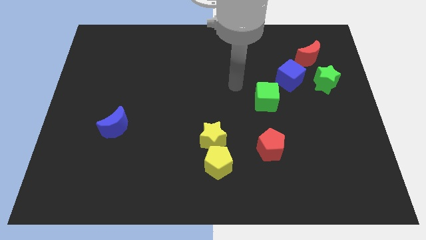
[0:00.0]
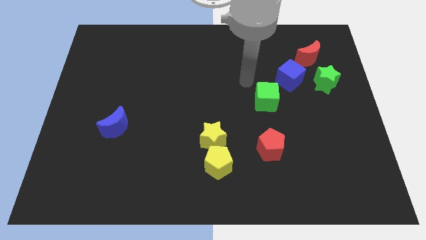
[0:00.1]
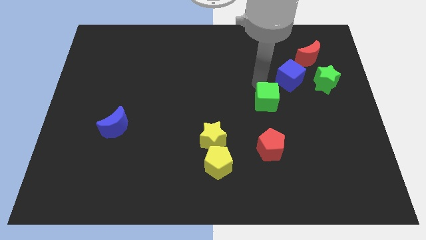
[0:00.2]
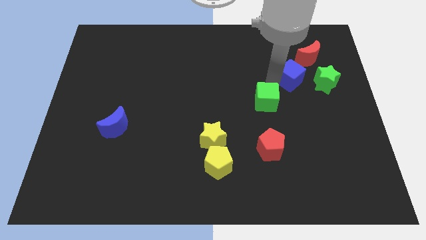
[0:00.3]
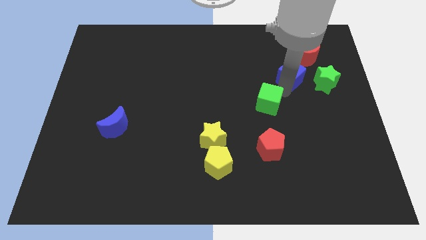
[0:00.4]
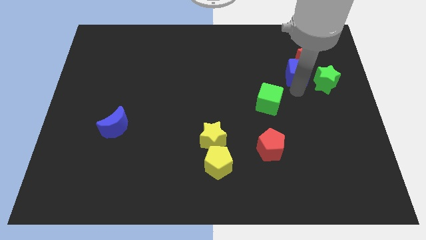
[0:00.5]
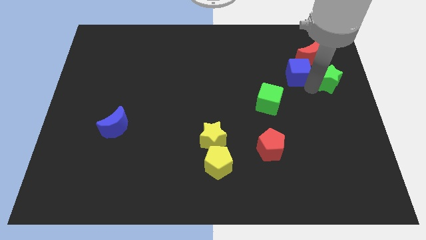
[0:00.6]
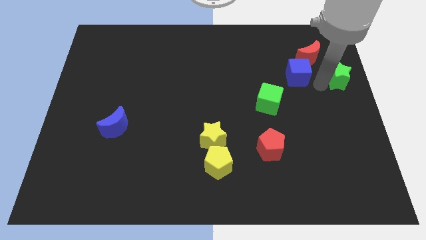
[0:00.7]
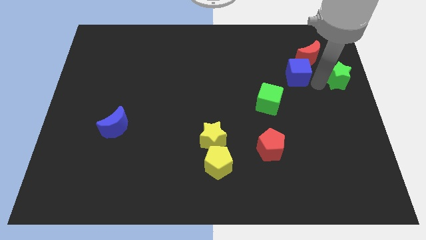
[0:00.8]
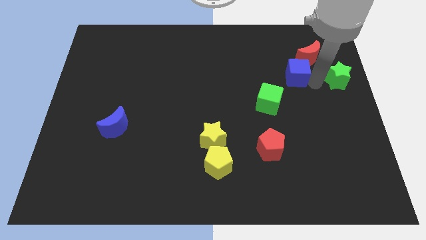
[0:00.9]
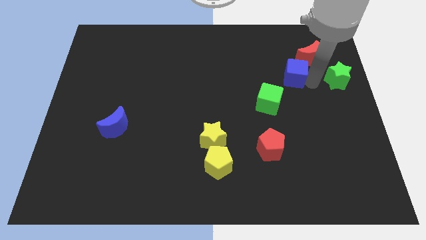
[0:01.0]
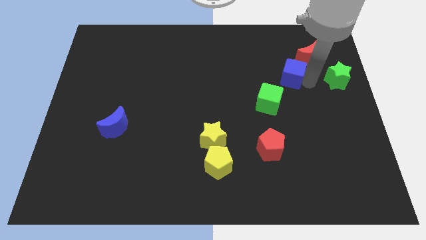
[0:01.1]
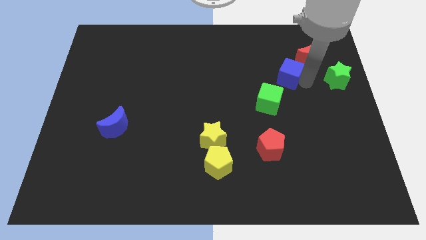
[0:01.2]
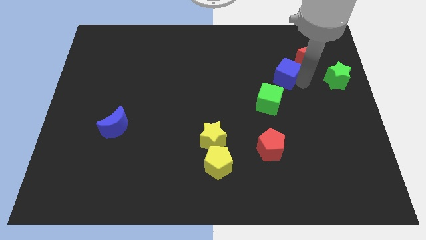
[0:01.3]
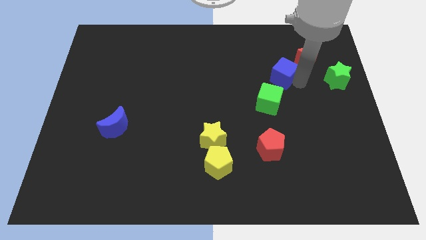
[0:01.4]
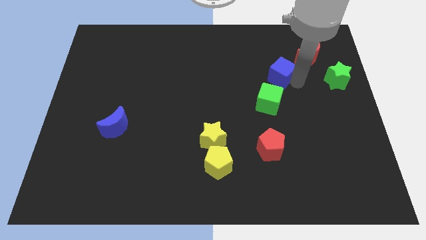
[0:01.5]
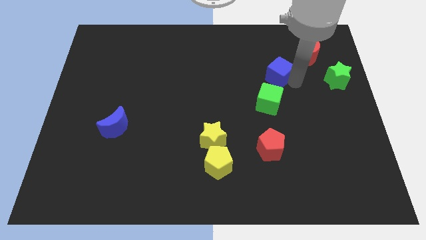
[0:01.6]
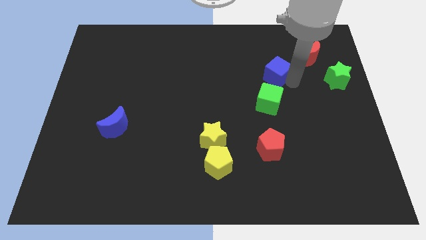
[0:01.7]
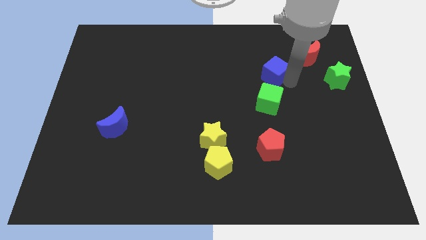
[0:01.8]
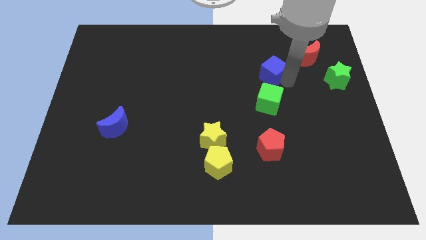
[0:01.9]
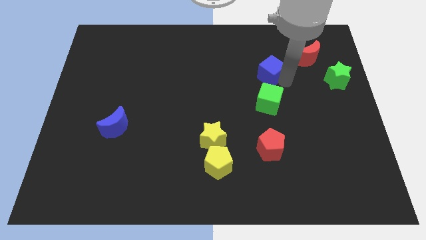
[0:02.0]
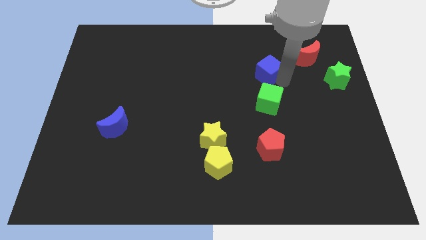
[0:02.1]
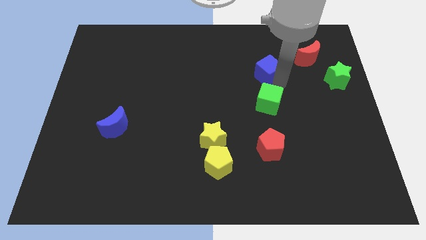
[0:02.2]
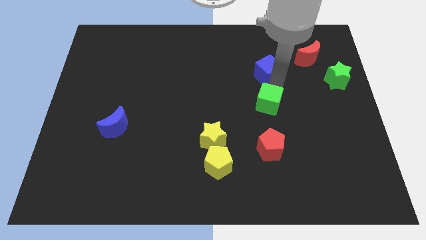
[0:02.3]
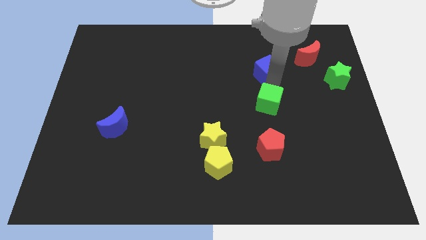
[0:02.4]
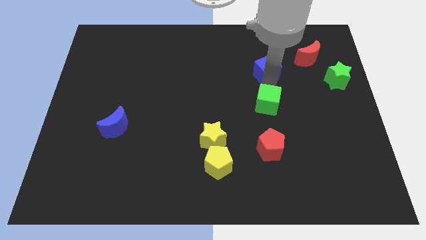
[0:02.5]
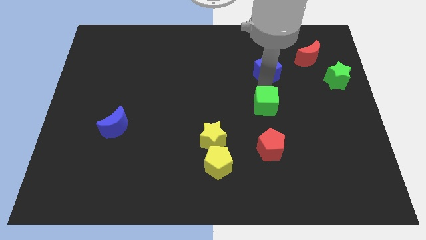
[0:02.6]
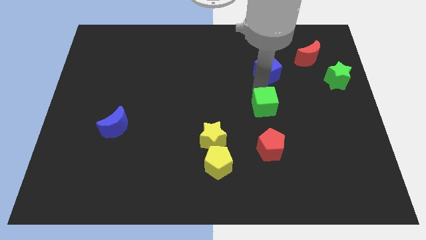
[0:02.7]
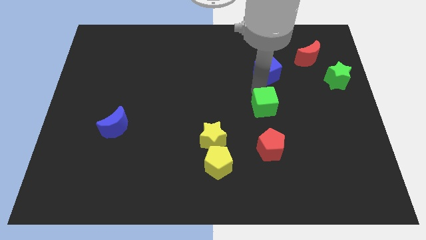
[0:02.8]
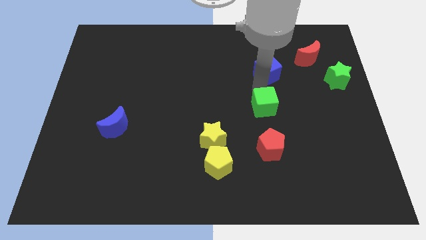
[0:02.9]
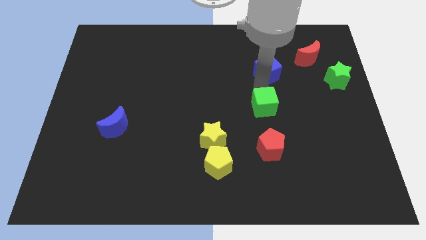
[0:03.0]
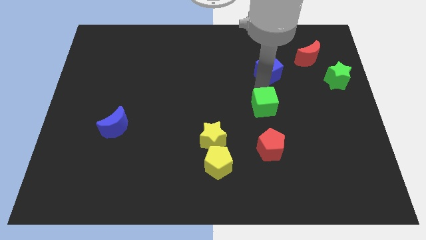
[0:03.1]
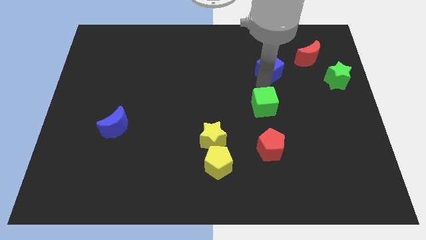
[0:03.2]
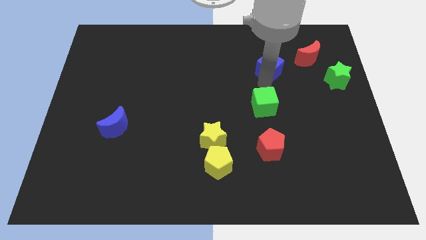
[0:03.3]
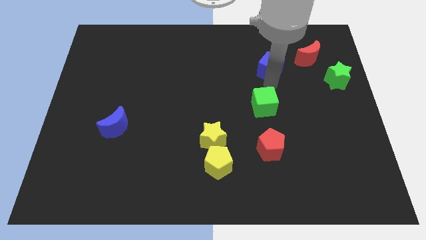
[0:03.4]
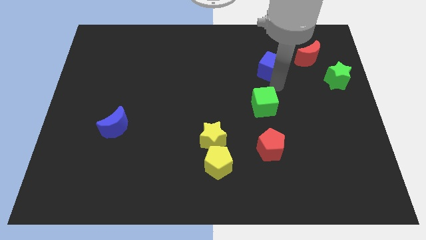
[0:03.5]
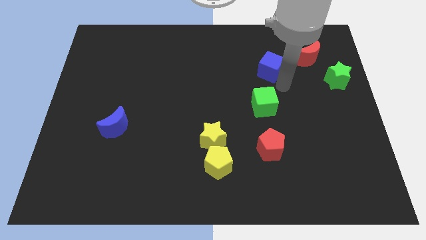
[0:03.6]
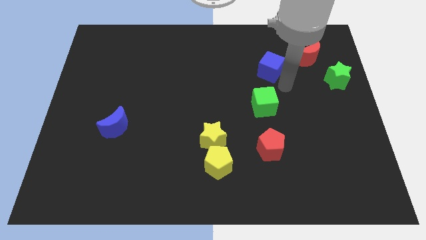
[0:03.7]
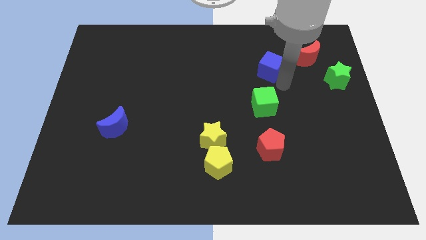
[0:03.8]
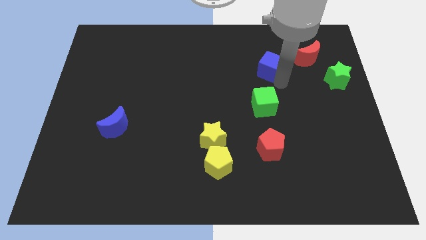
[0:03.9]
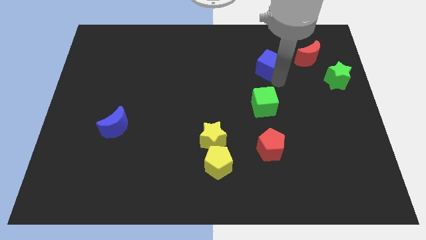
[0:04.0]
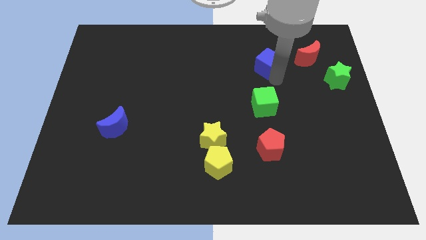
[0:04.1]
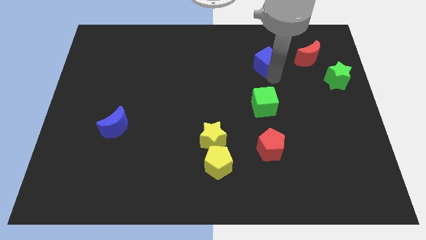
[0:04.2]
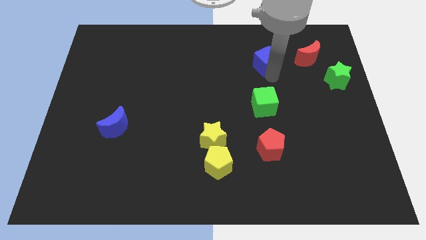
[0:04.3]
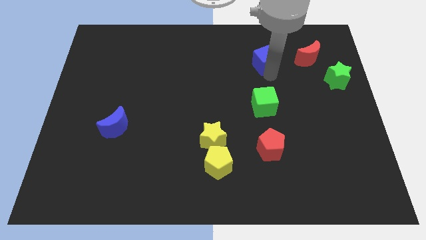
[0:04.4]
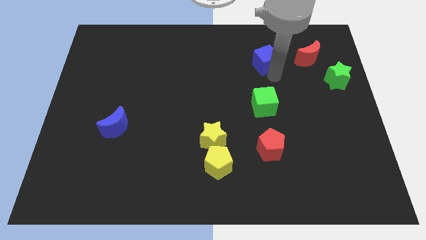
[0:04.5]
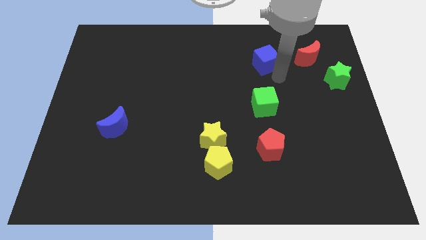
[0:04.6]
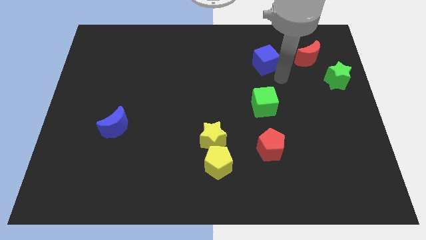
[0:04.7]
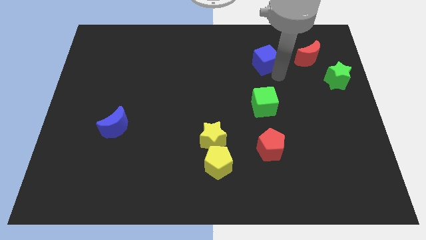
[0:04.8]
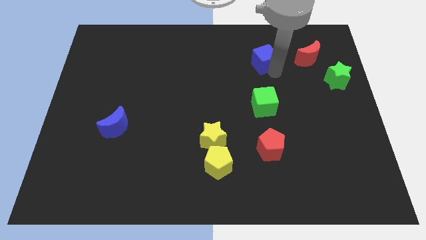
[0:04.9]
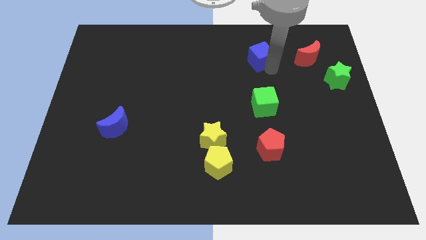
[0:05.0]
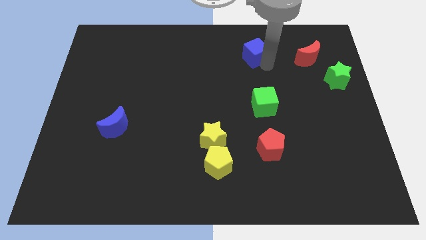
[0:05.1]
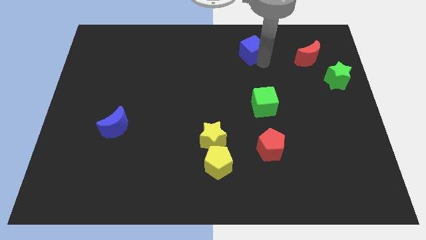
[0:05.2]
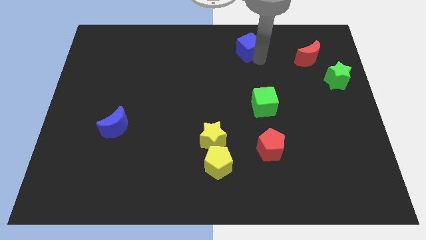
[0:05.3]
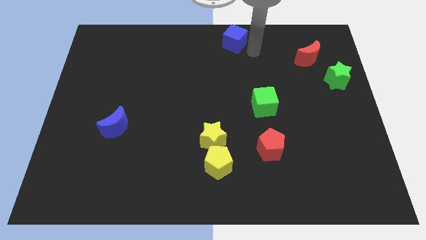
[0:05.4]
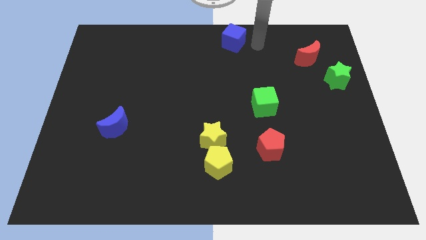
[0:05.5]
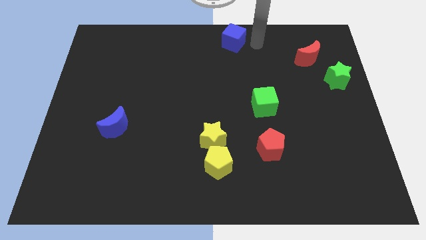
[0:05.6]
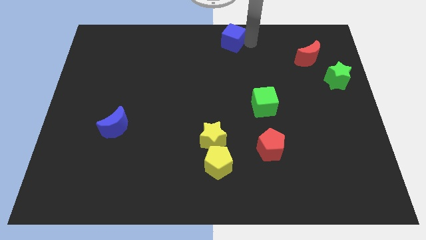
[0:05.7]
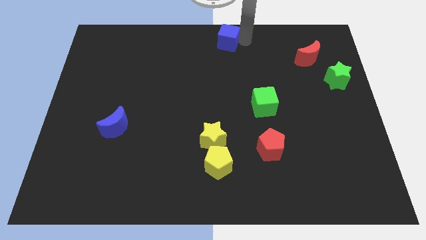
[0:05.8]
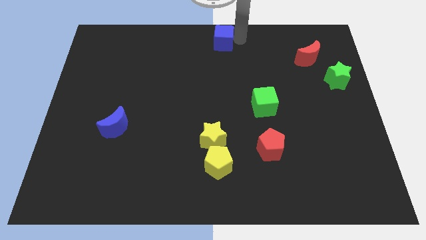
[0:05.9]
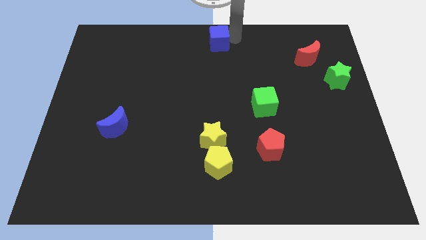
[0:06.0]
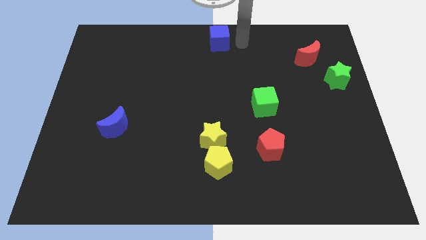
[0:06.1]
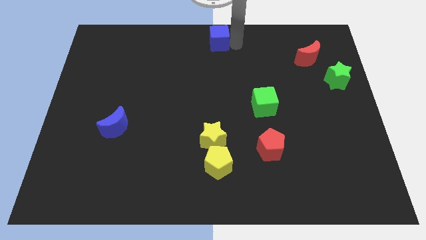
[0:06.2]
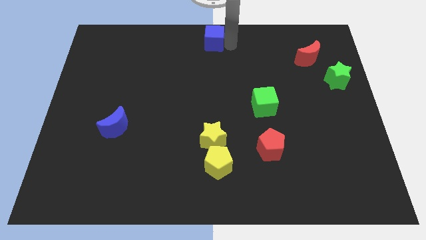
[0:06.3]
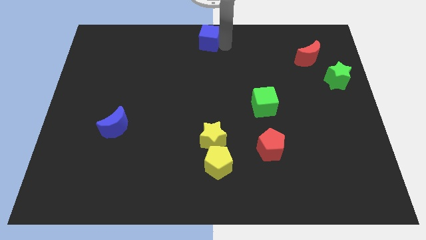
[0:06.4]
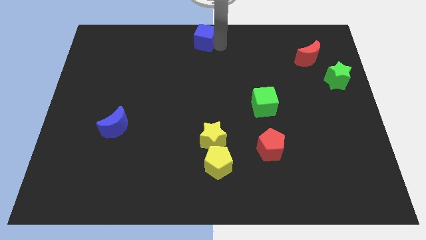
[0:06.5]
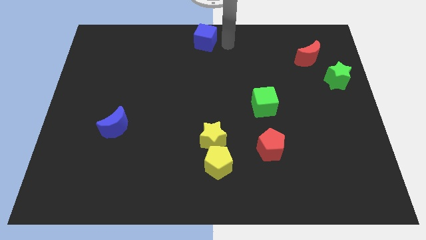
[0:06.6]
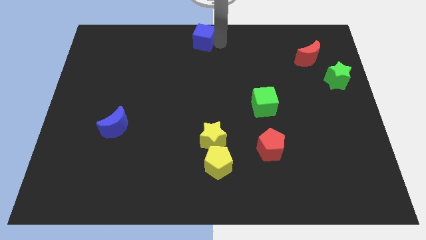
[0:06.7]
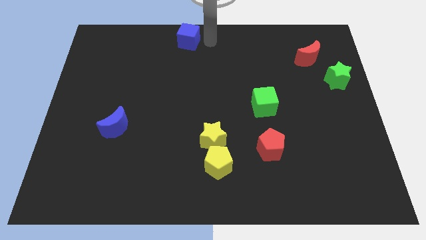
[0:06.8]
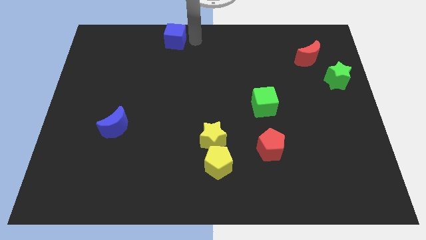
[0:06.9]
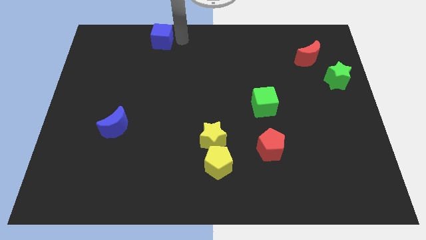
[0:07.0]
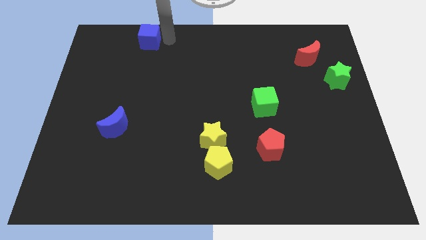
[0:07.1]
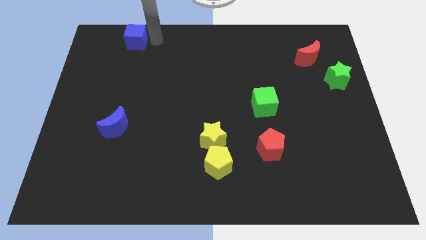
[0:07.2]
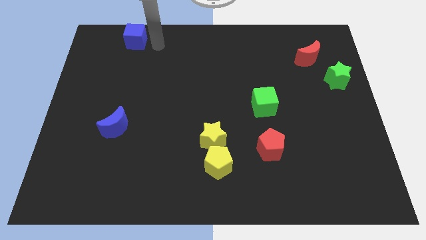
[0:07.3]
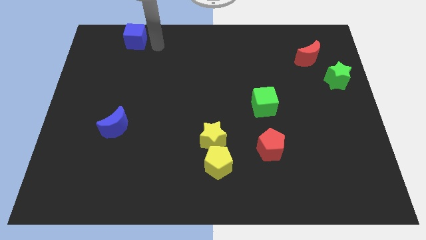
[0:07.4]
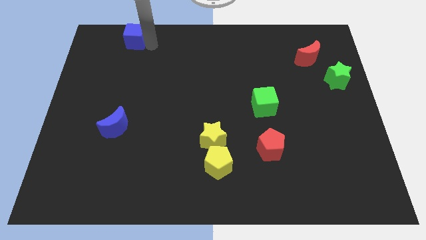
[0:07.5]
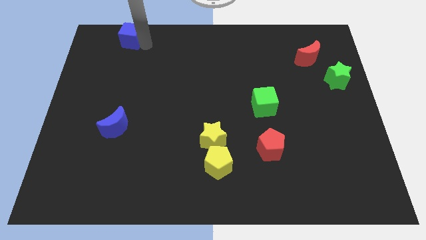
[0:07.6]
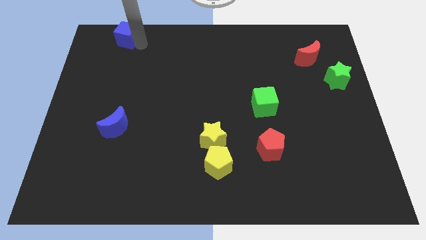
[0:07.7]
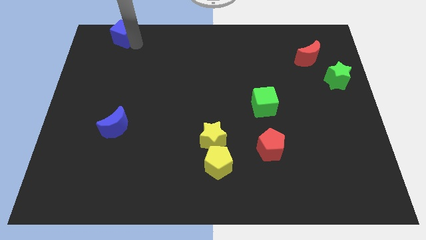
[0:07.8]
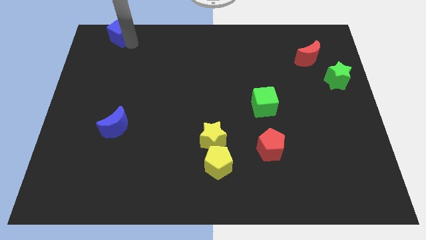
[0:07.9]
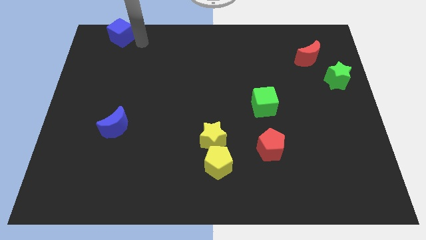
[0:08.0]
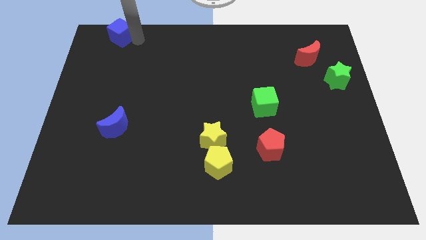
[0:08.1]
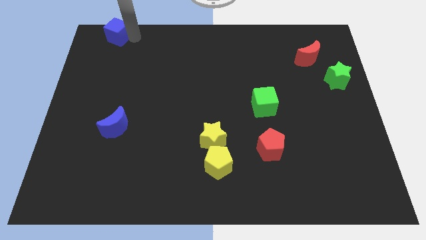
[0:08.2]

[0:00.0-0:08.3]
slide the blue cube to the upper left corner
